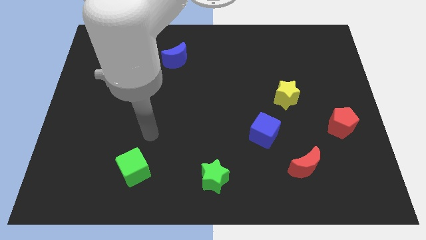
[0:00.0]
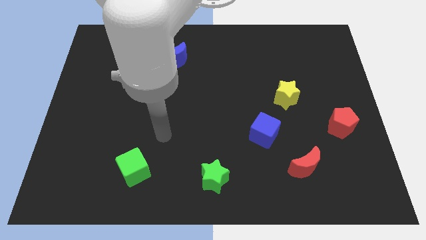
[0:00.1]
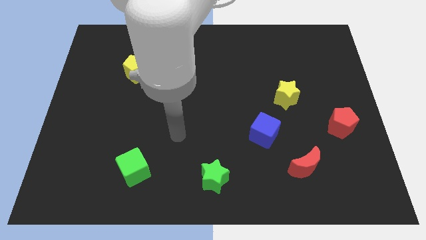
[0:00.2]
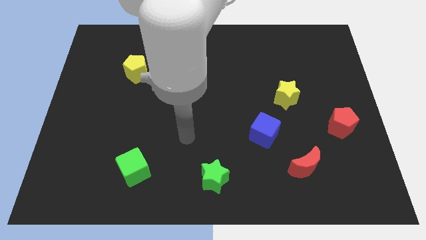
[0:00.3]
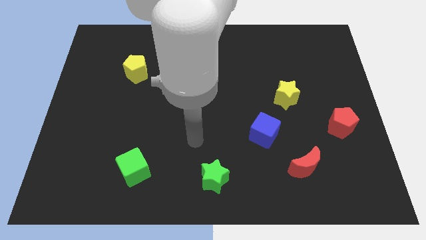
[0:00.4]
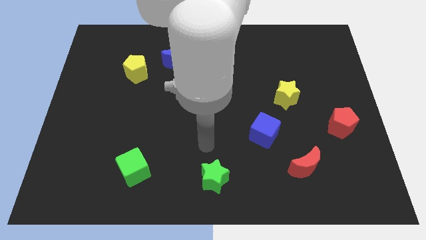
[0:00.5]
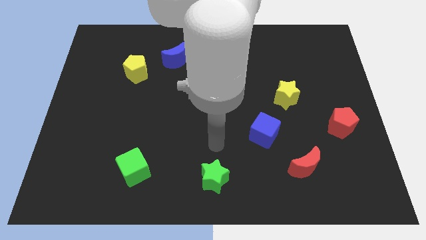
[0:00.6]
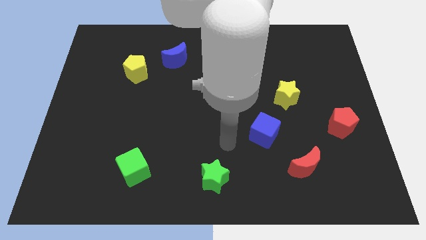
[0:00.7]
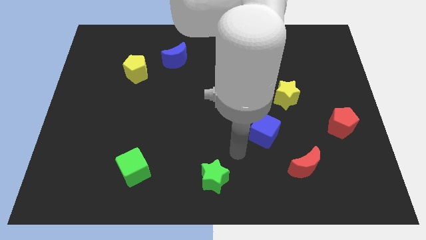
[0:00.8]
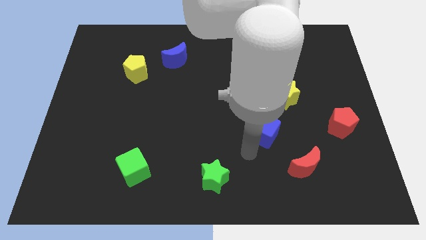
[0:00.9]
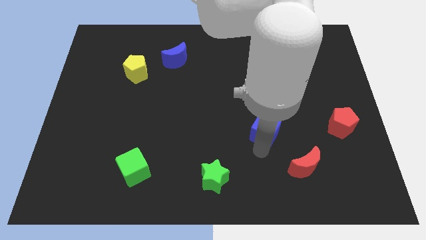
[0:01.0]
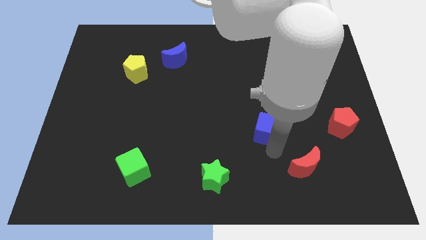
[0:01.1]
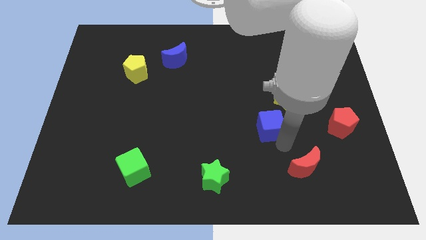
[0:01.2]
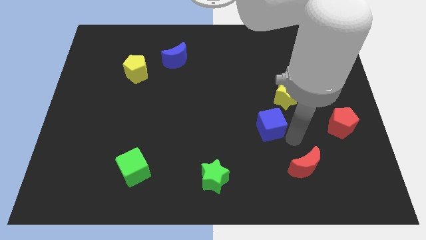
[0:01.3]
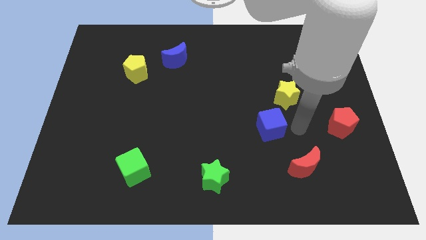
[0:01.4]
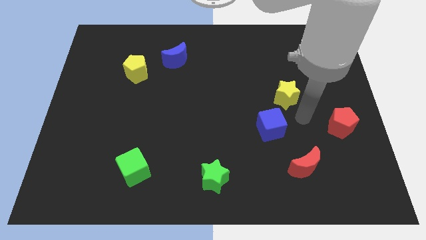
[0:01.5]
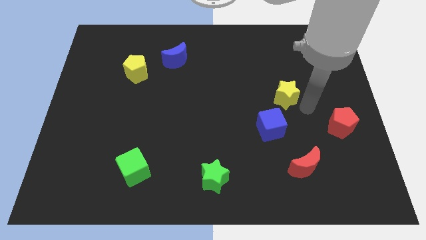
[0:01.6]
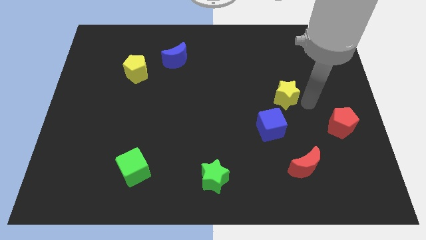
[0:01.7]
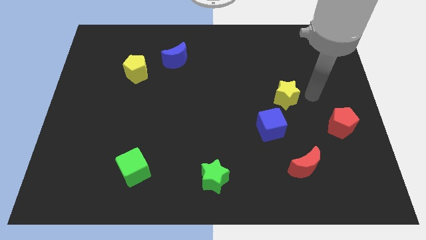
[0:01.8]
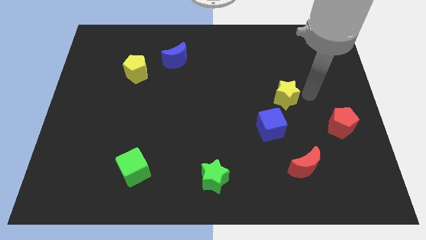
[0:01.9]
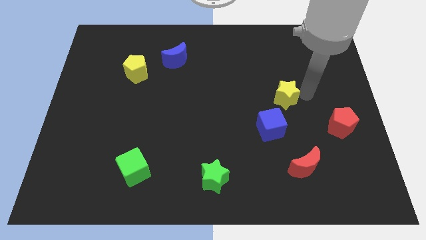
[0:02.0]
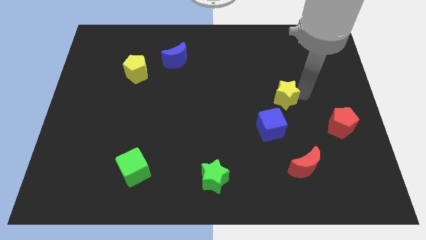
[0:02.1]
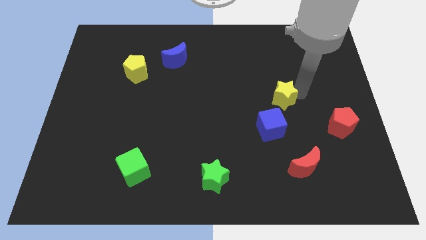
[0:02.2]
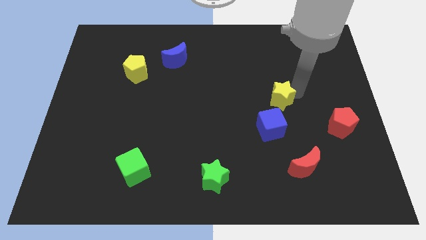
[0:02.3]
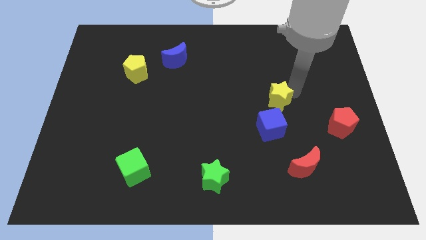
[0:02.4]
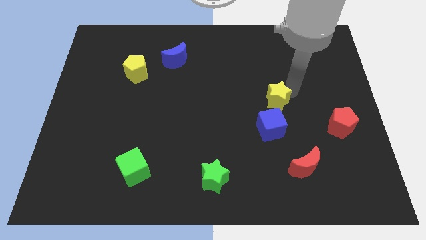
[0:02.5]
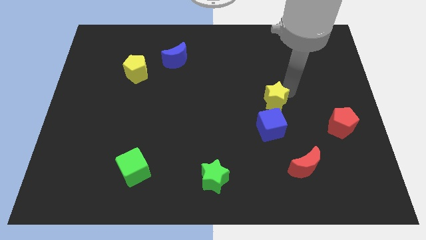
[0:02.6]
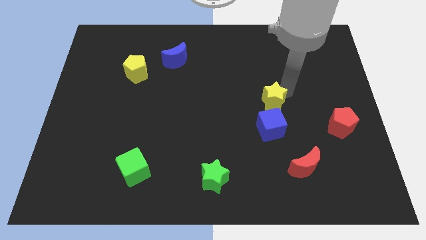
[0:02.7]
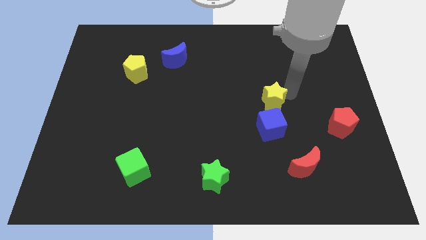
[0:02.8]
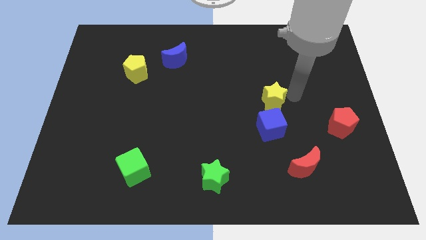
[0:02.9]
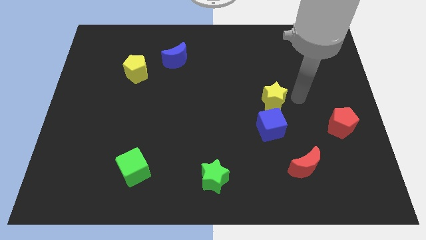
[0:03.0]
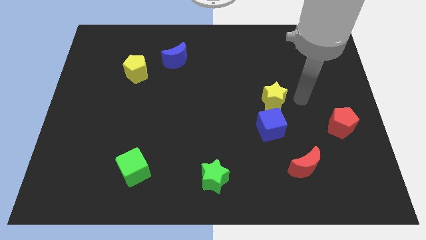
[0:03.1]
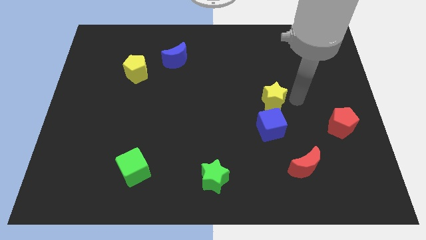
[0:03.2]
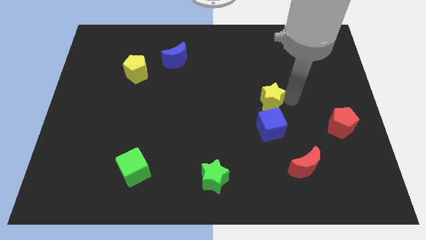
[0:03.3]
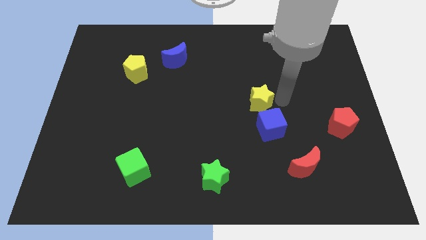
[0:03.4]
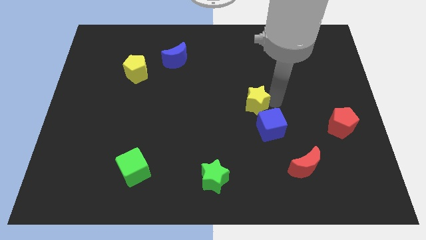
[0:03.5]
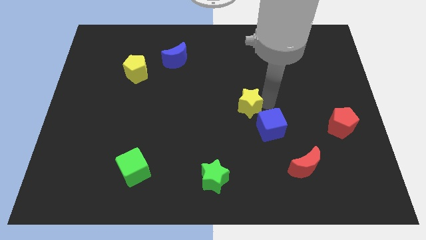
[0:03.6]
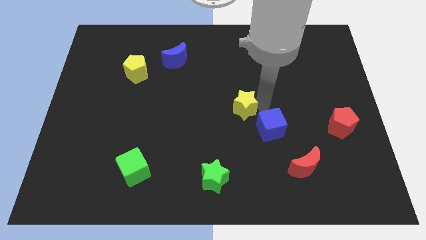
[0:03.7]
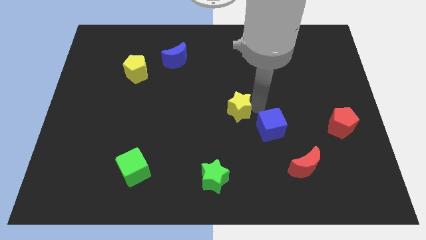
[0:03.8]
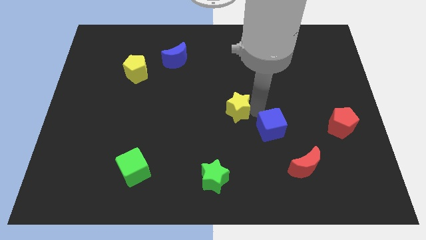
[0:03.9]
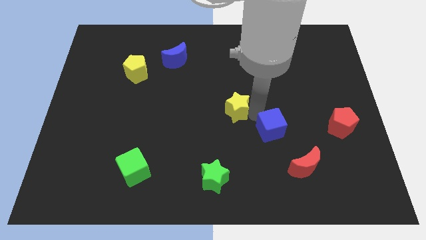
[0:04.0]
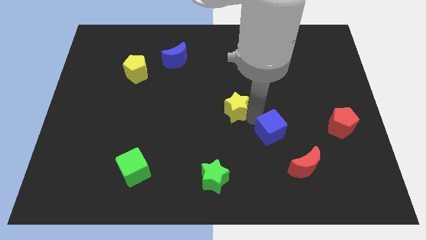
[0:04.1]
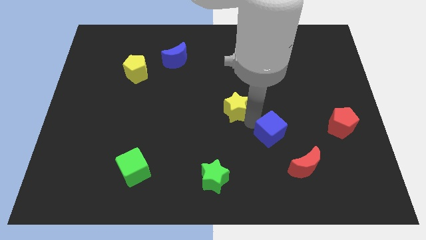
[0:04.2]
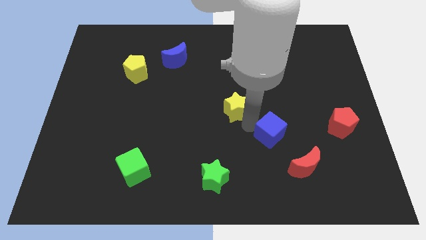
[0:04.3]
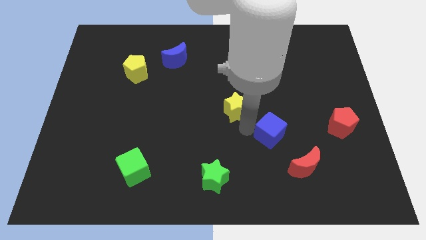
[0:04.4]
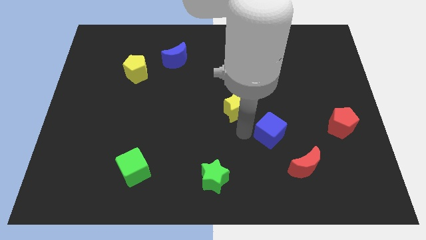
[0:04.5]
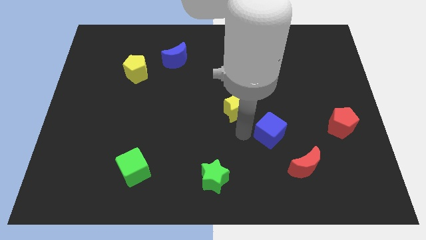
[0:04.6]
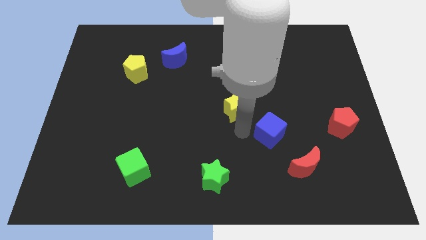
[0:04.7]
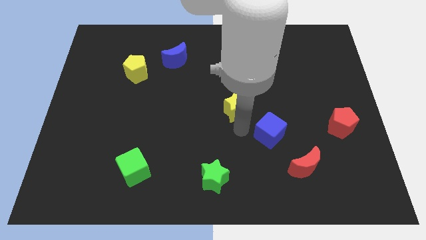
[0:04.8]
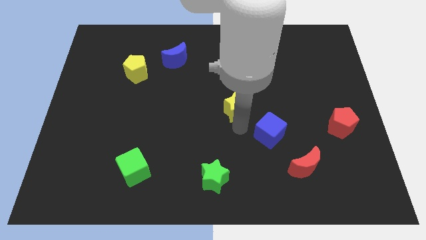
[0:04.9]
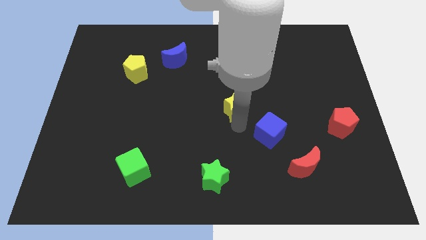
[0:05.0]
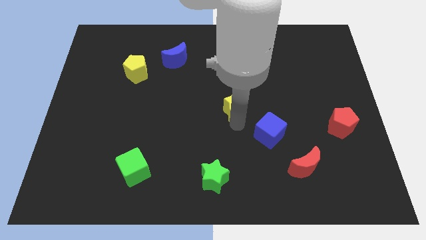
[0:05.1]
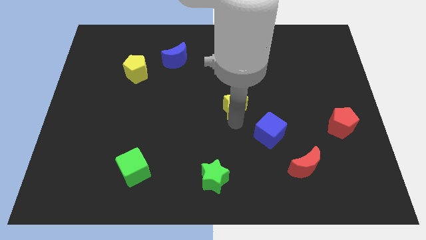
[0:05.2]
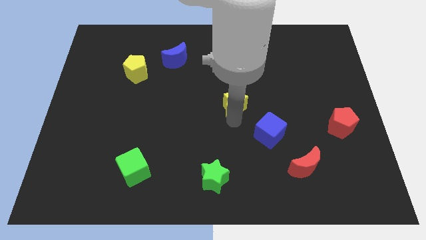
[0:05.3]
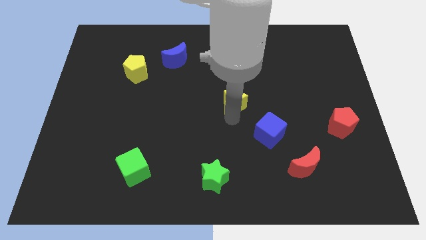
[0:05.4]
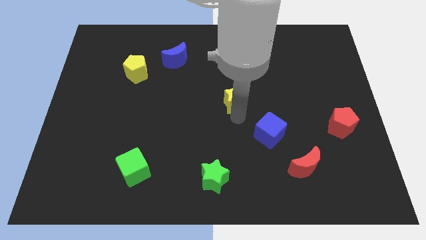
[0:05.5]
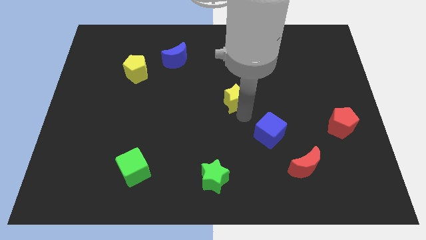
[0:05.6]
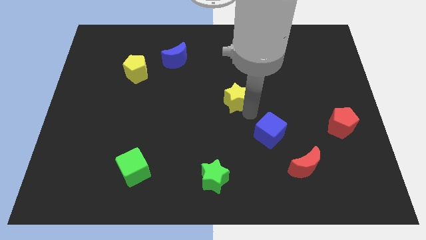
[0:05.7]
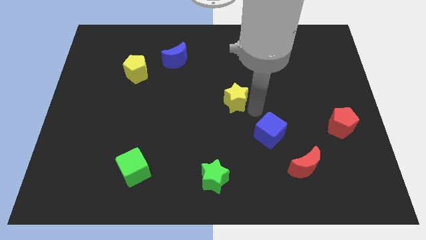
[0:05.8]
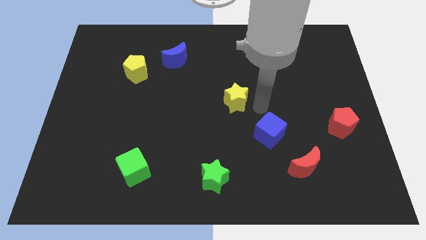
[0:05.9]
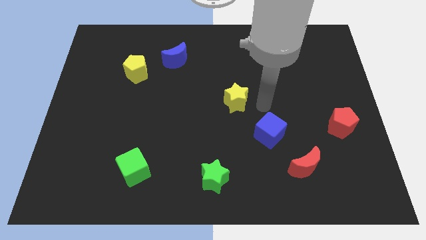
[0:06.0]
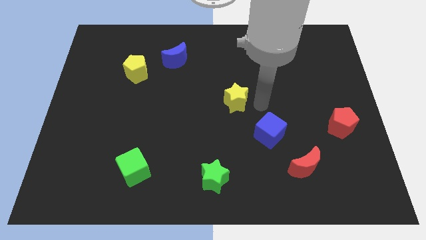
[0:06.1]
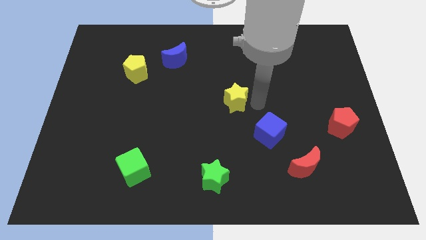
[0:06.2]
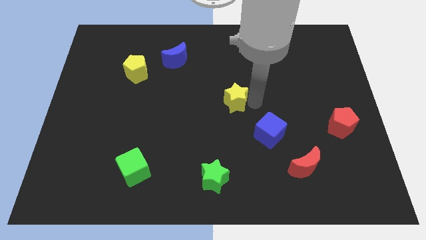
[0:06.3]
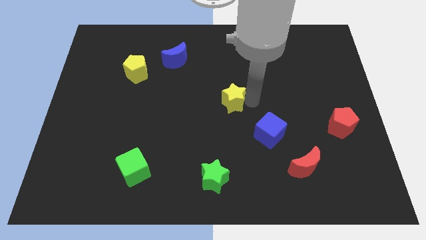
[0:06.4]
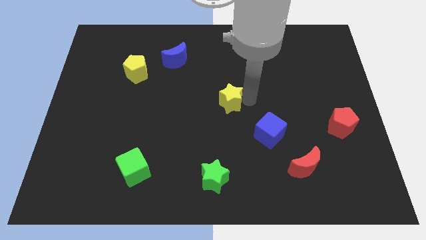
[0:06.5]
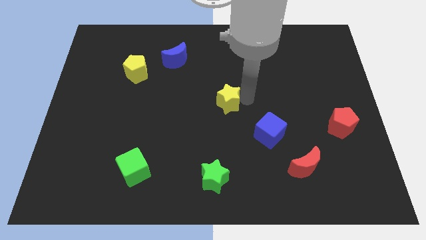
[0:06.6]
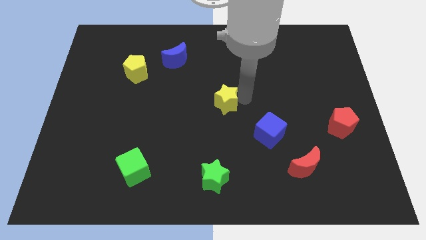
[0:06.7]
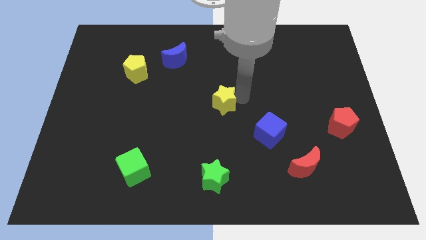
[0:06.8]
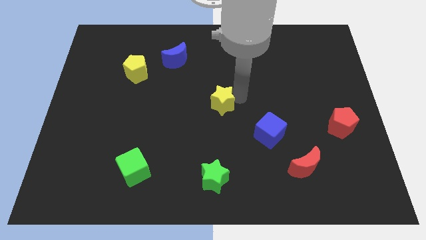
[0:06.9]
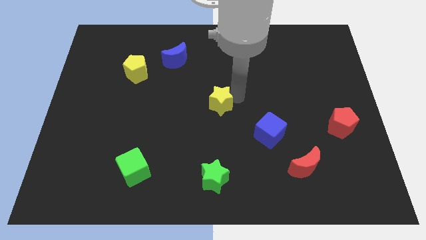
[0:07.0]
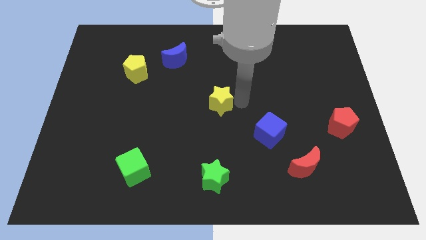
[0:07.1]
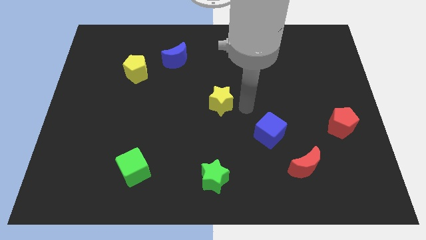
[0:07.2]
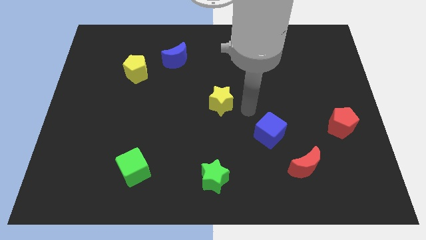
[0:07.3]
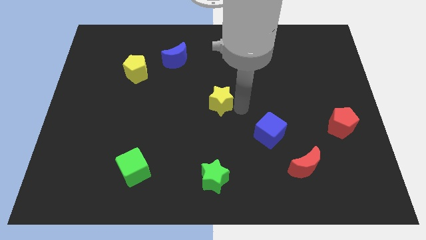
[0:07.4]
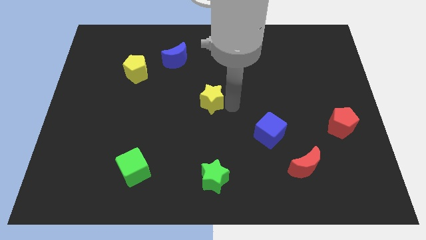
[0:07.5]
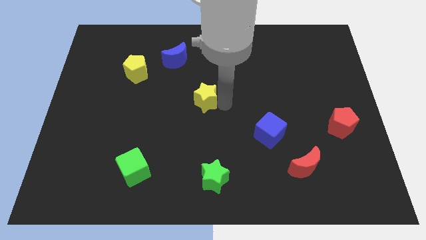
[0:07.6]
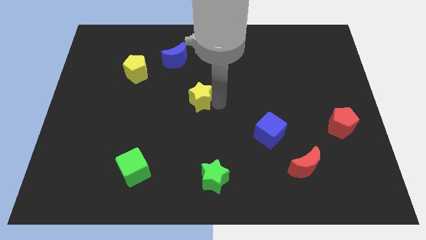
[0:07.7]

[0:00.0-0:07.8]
move the yellow star to the left

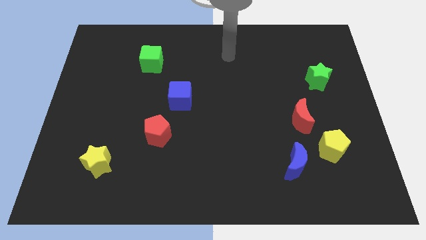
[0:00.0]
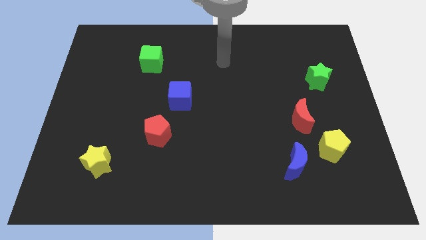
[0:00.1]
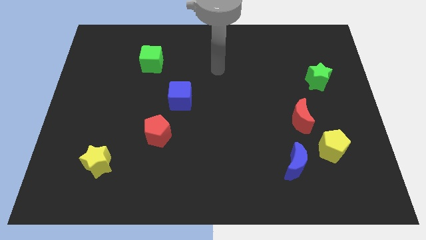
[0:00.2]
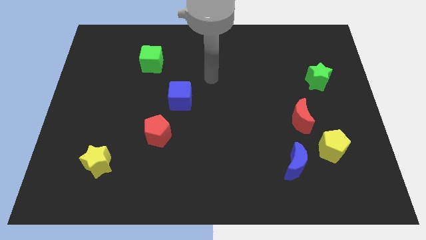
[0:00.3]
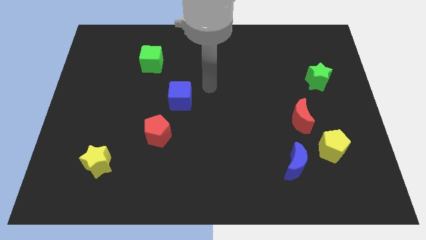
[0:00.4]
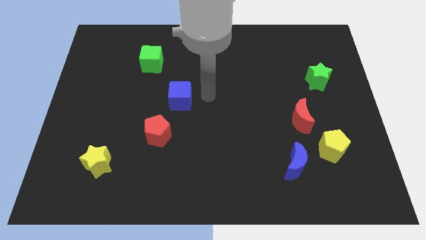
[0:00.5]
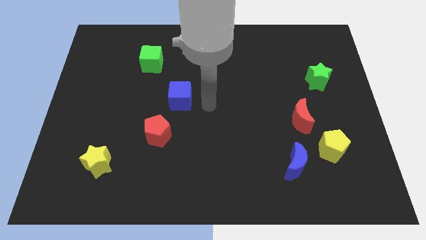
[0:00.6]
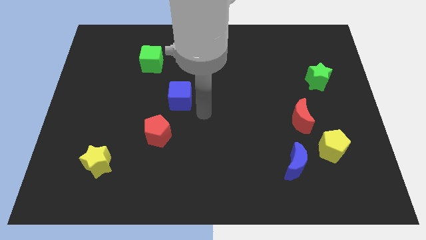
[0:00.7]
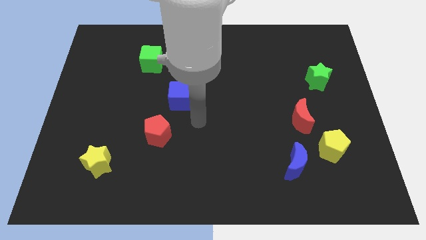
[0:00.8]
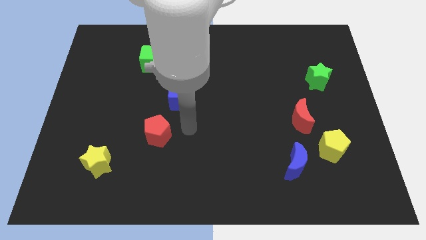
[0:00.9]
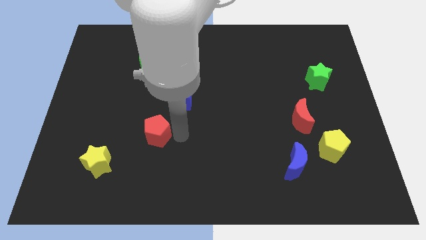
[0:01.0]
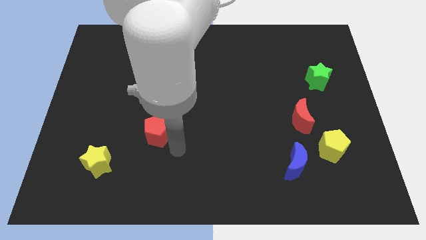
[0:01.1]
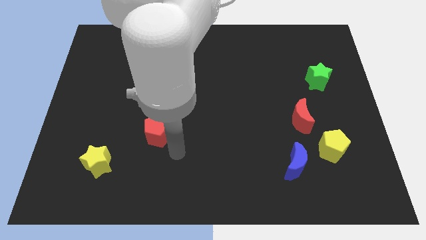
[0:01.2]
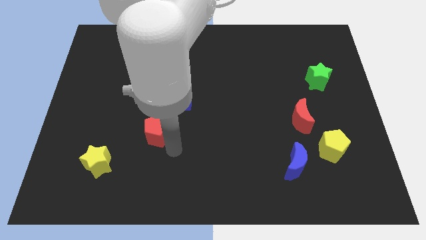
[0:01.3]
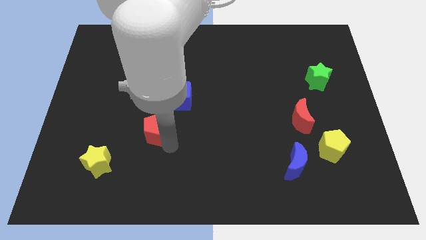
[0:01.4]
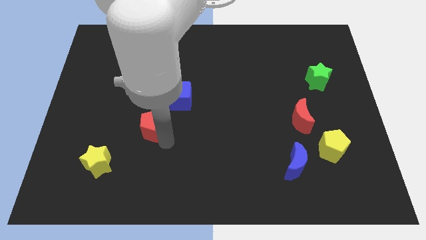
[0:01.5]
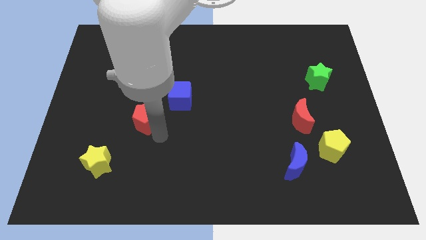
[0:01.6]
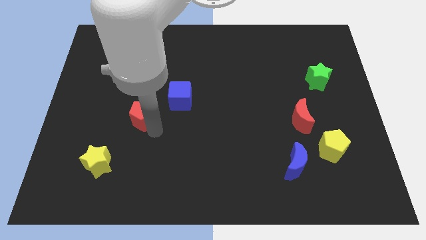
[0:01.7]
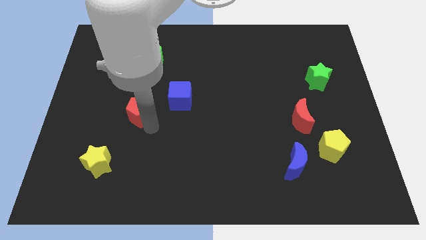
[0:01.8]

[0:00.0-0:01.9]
move the red pentagon a little bit up and to the left
